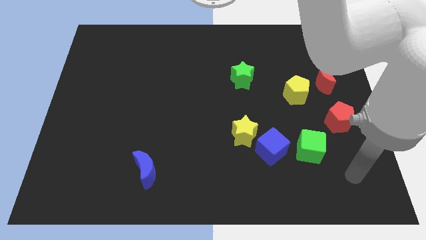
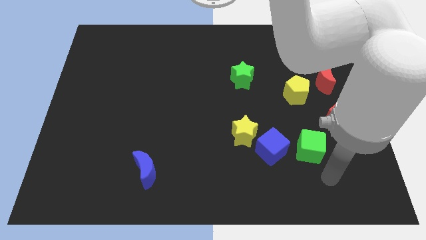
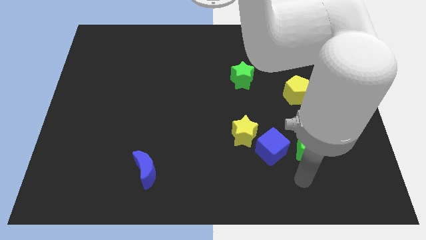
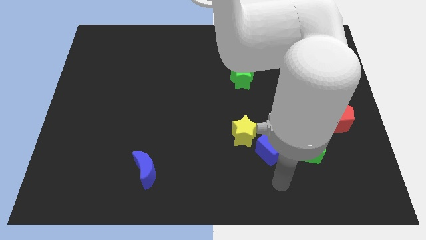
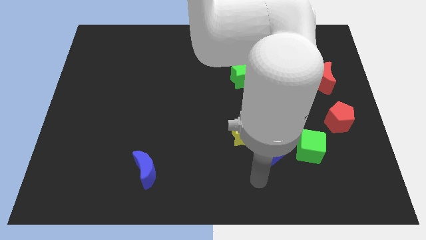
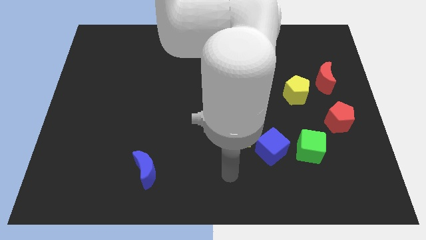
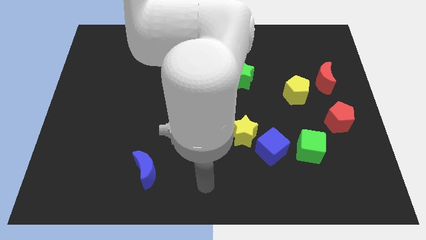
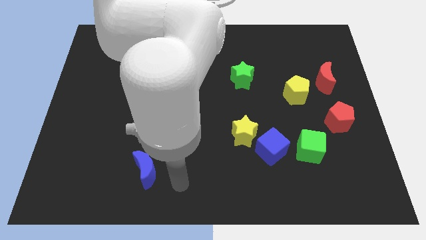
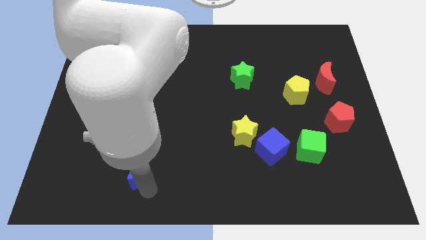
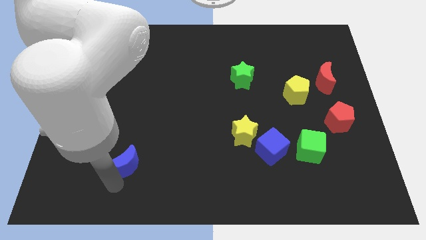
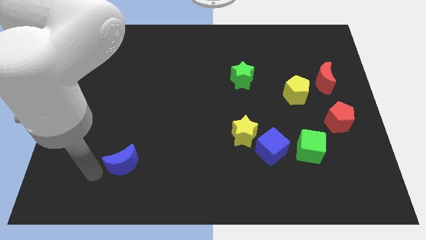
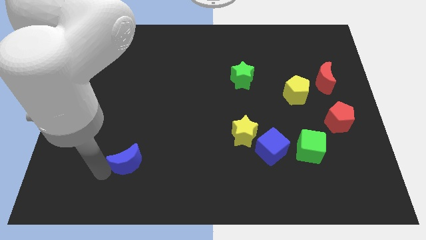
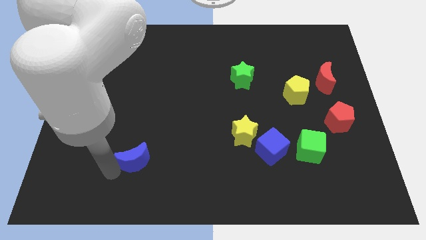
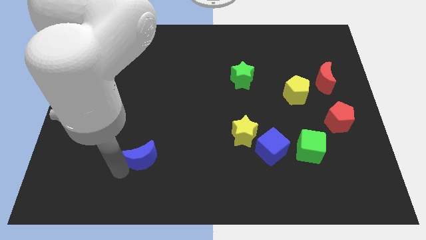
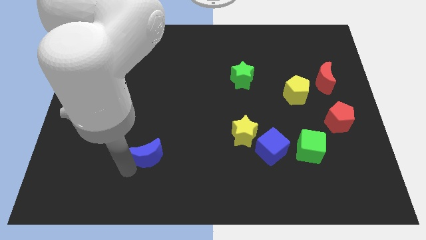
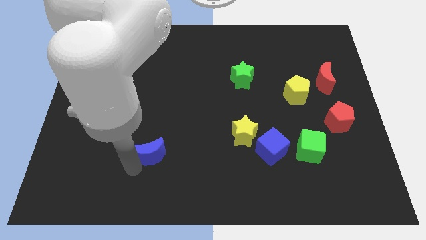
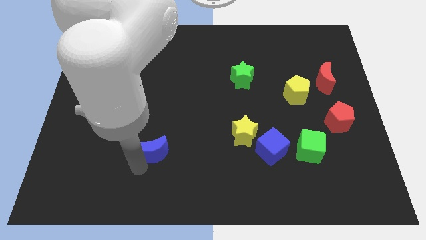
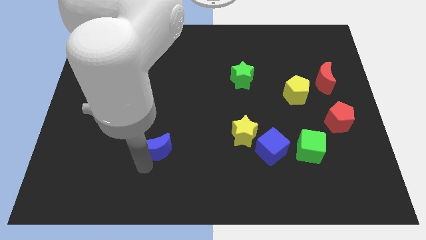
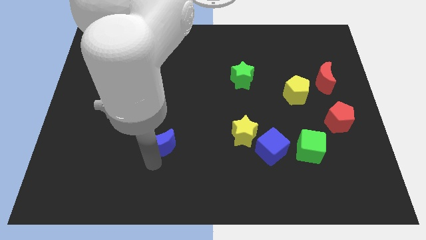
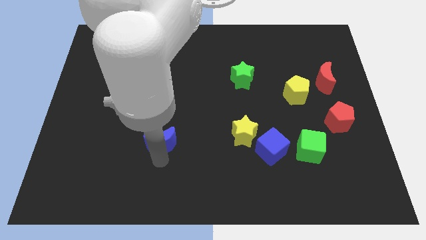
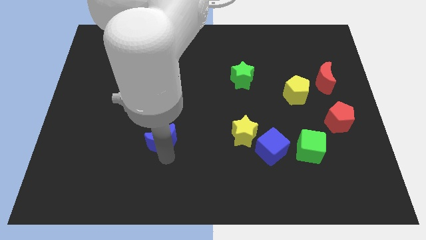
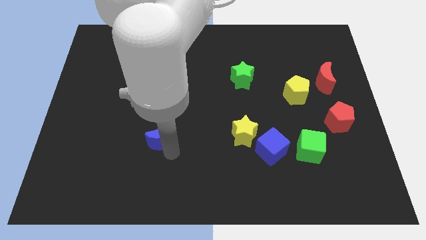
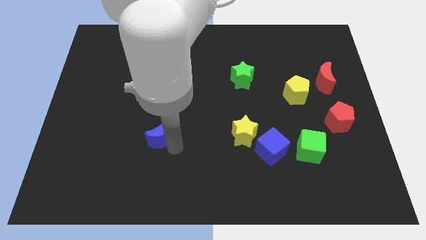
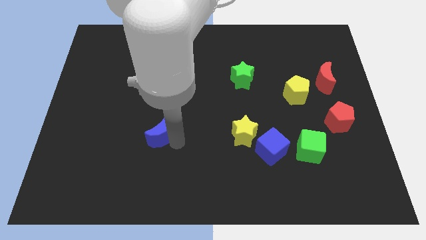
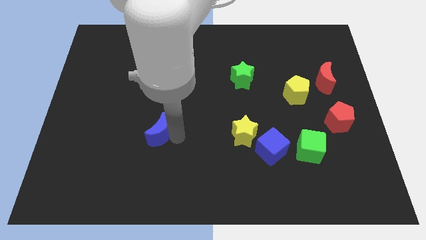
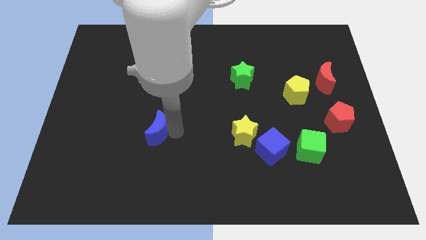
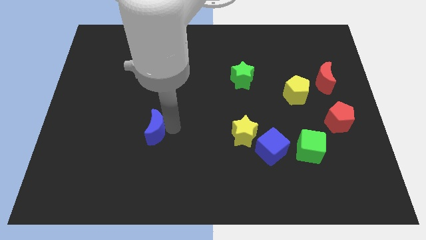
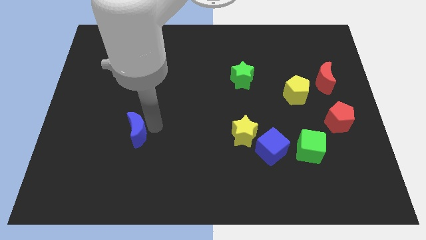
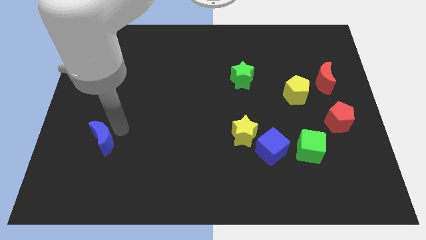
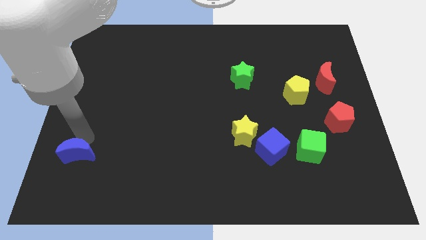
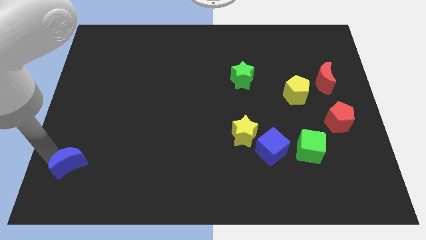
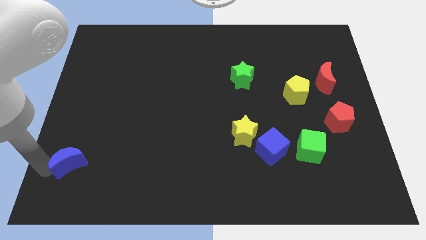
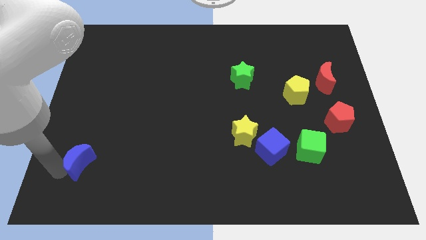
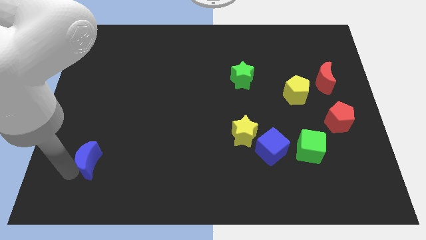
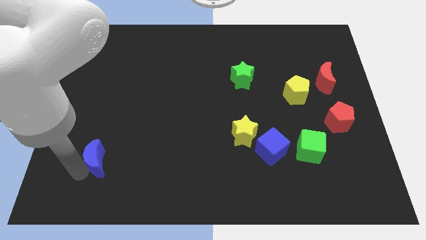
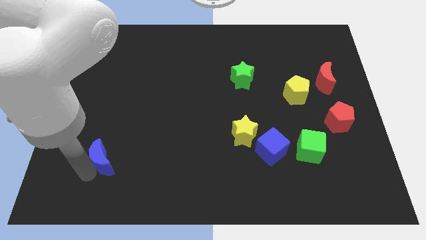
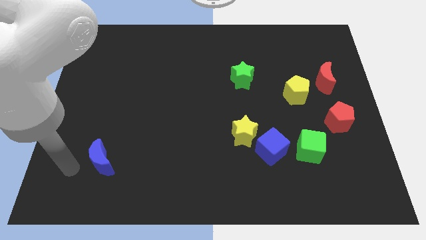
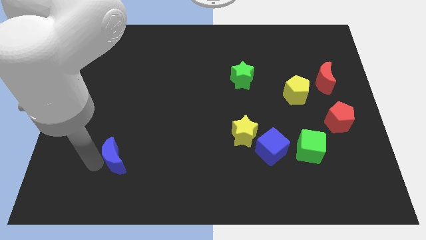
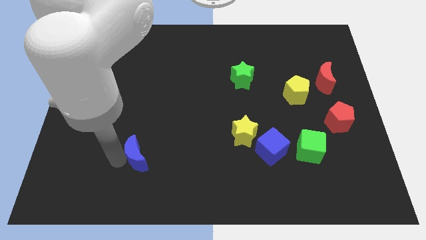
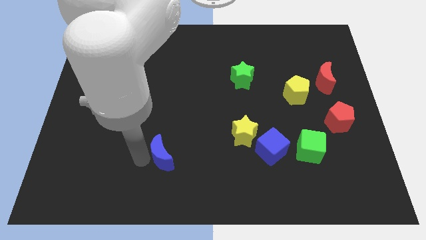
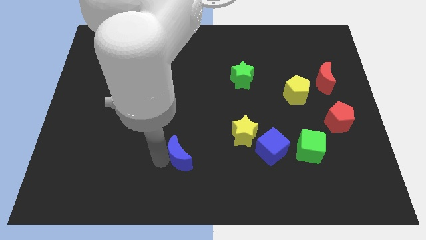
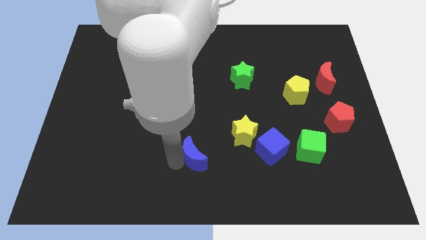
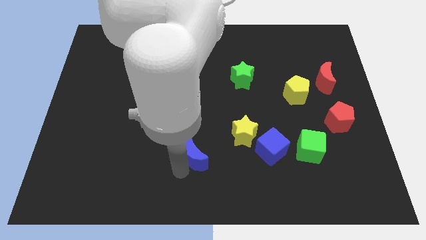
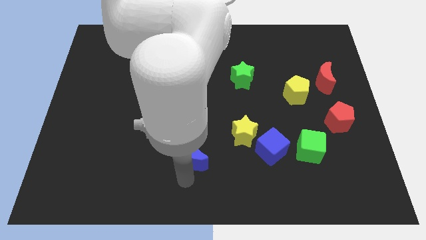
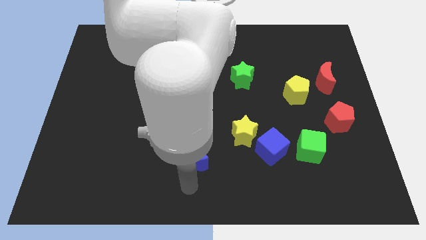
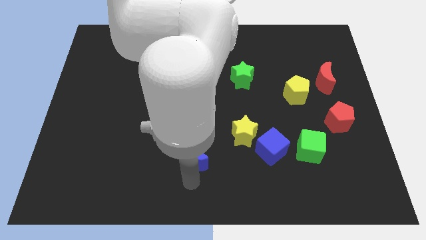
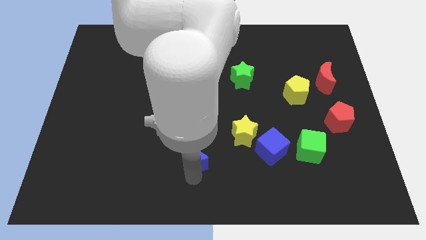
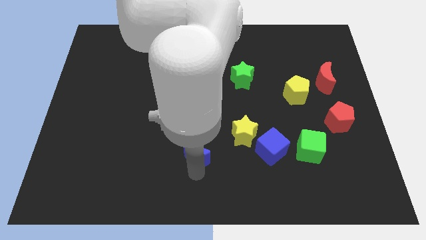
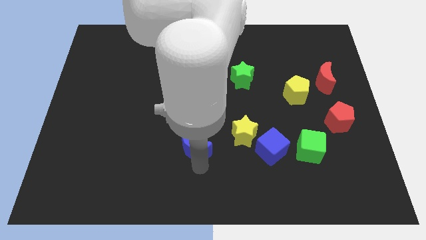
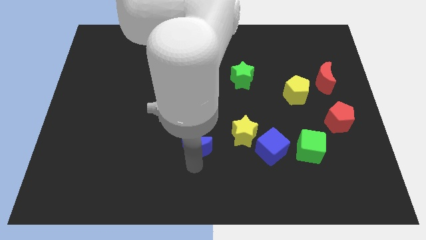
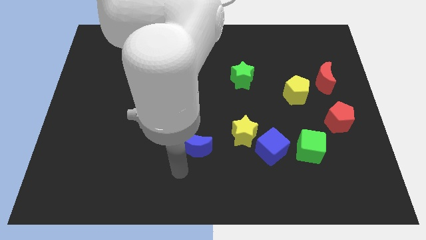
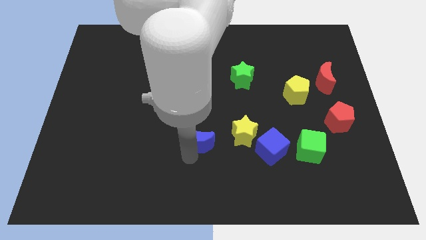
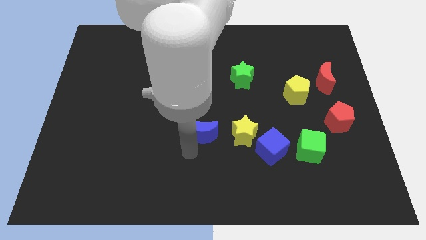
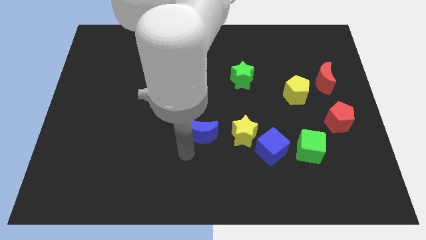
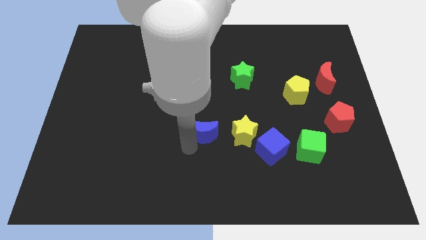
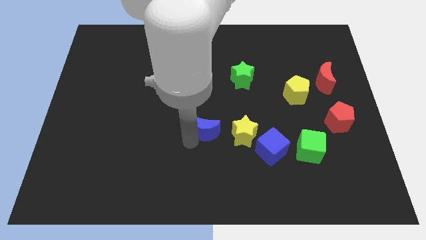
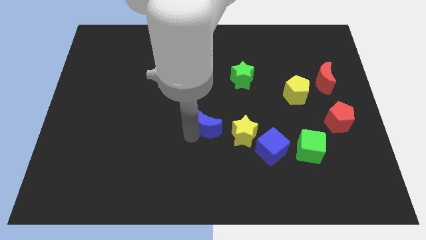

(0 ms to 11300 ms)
move the blue moon diagonally up and to the left of the yellow star

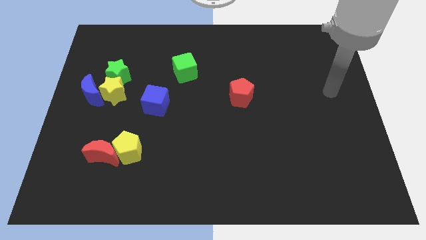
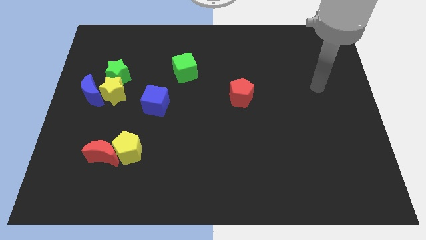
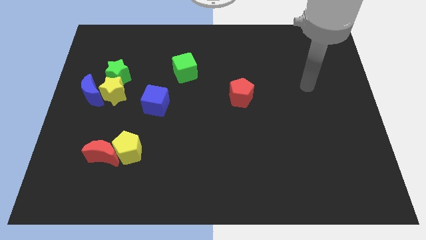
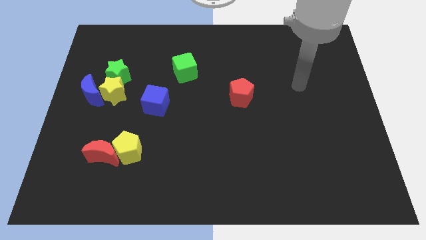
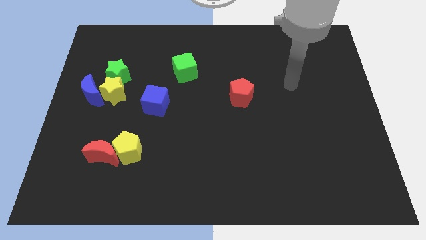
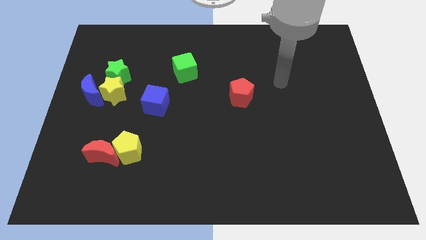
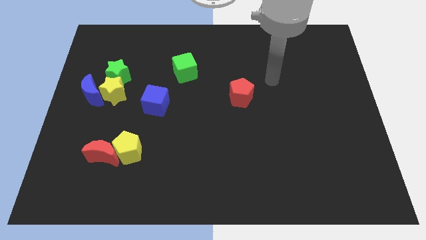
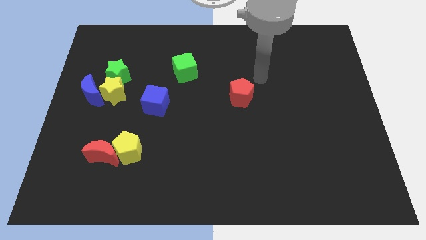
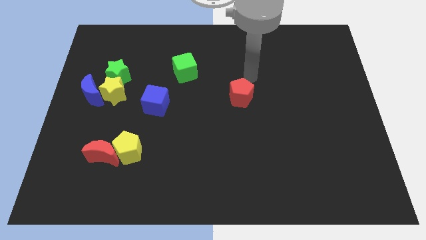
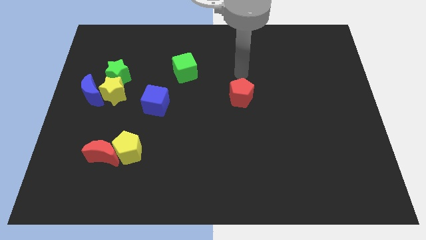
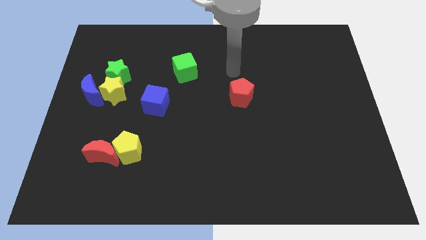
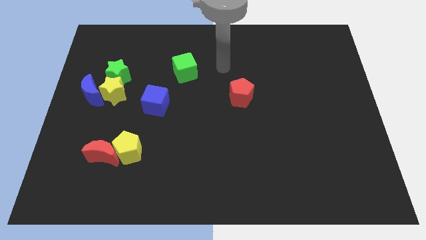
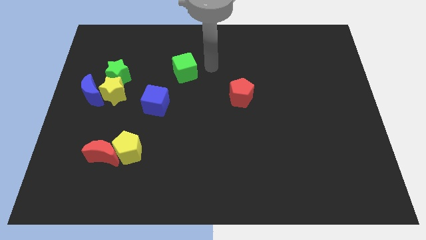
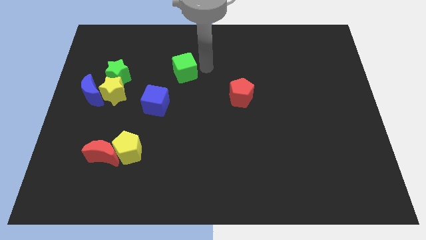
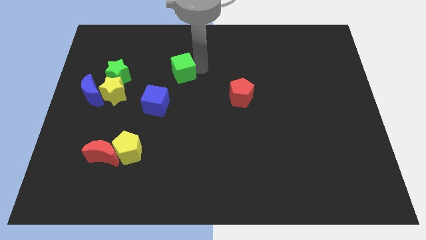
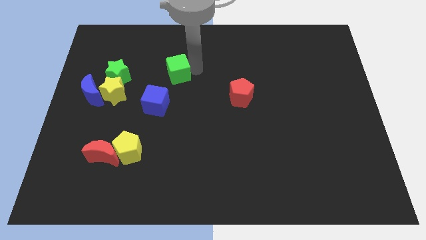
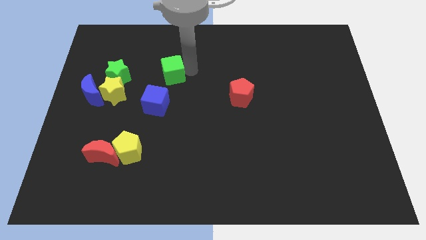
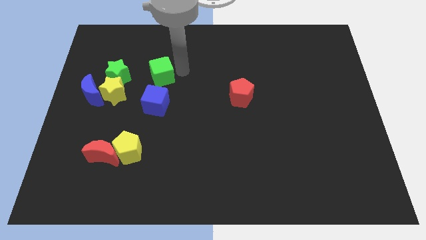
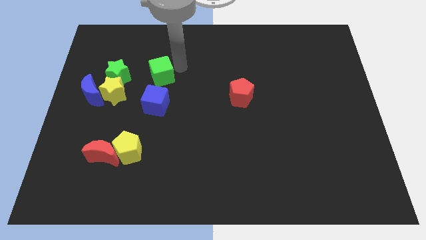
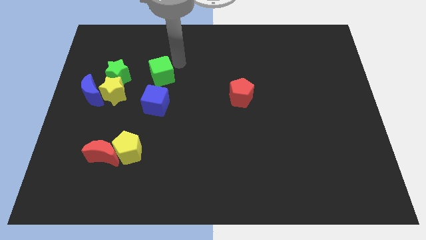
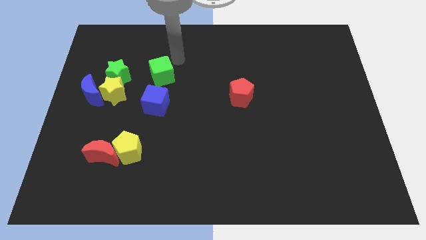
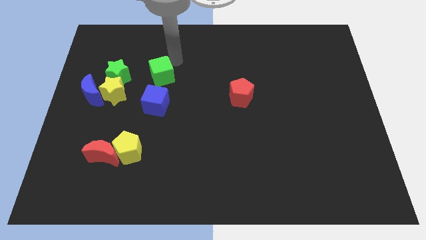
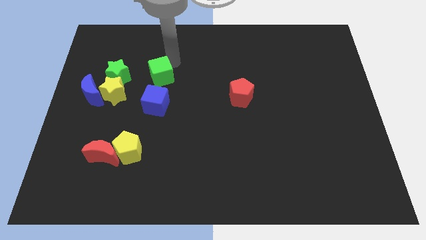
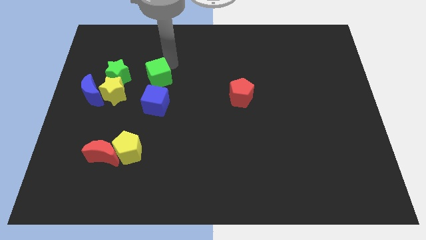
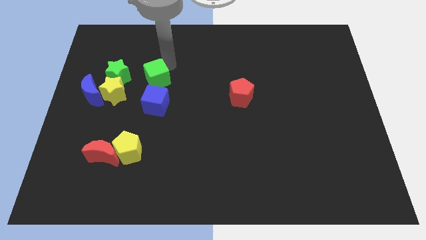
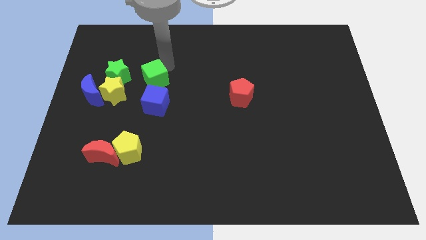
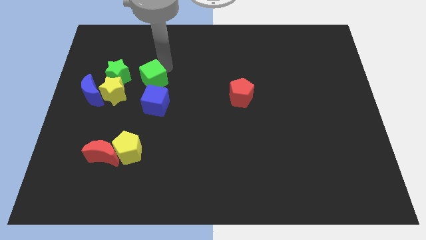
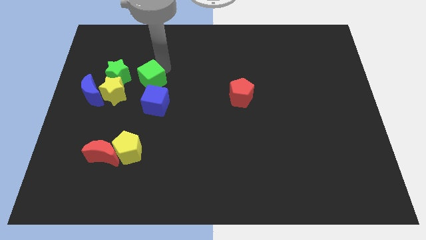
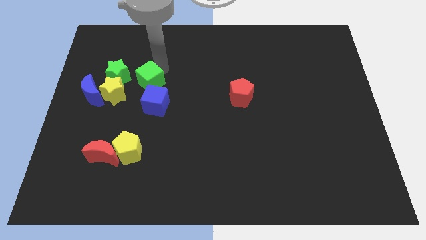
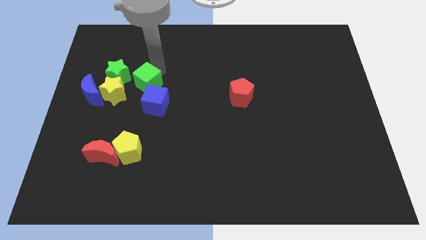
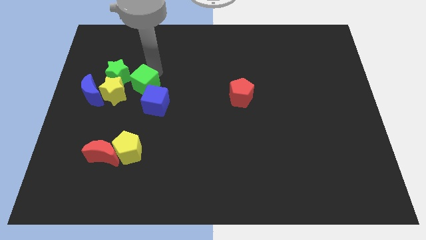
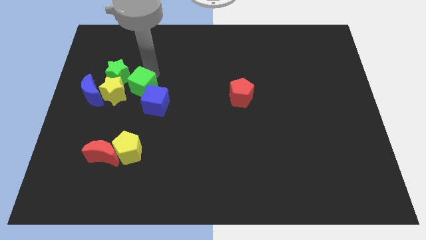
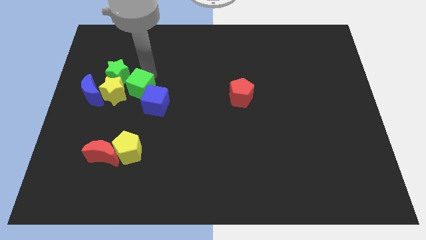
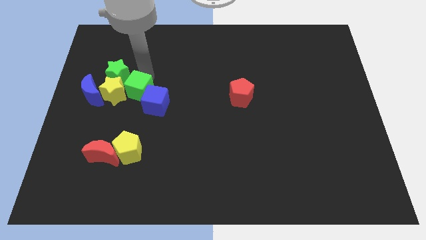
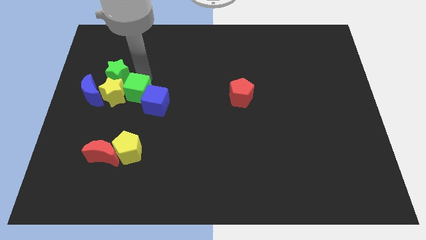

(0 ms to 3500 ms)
put the green cube to the bottom right side of the yellow star
